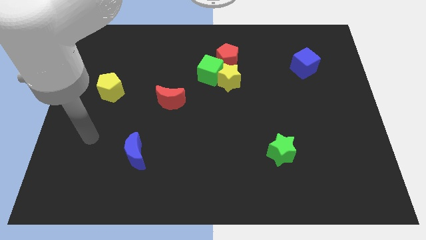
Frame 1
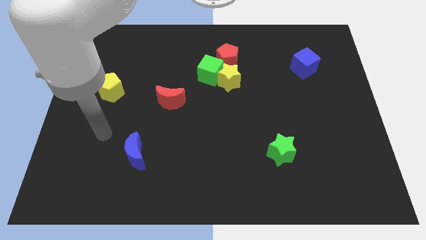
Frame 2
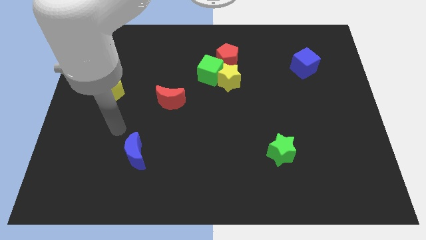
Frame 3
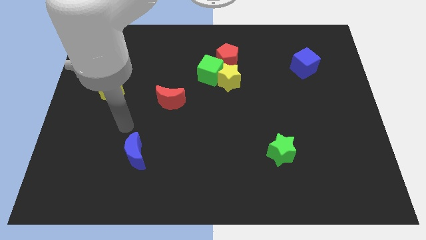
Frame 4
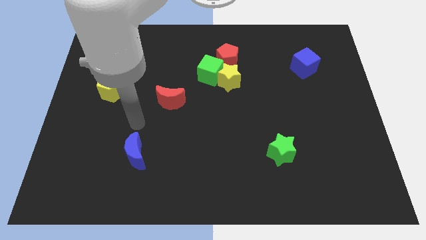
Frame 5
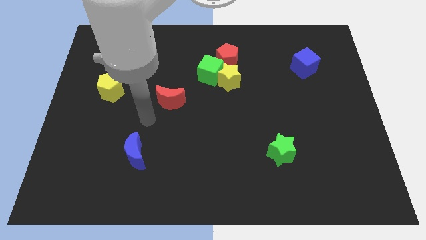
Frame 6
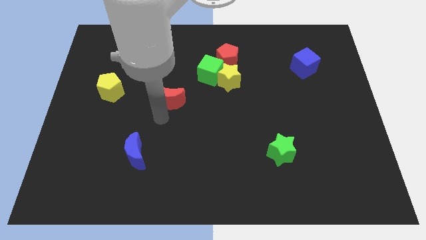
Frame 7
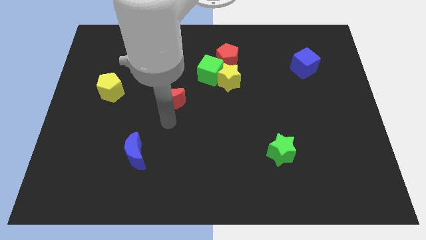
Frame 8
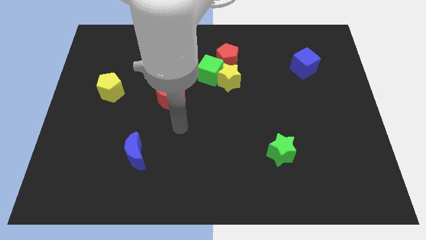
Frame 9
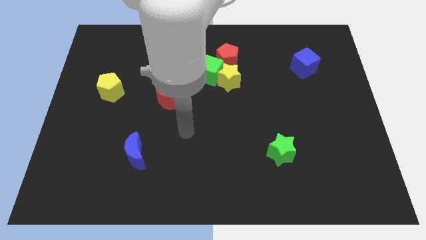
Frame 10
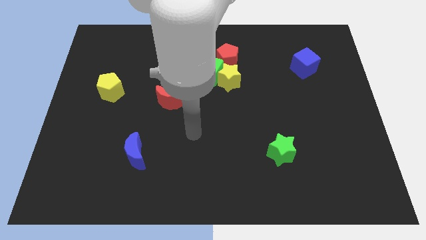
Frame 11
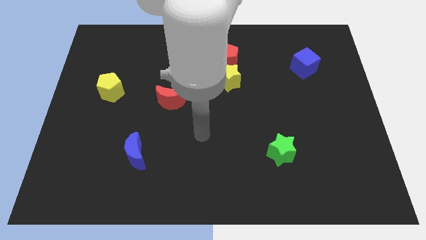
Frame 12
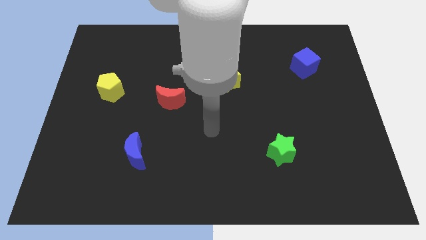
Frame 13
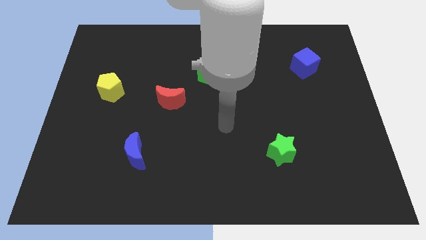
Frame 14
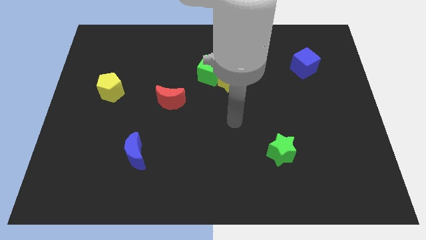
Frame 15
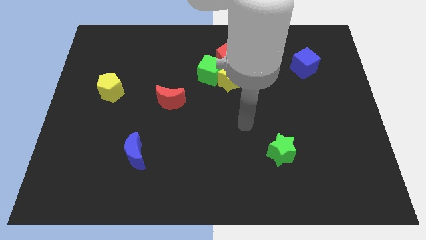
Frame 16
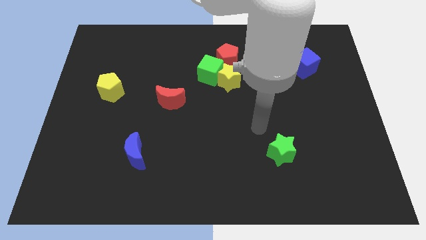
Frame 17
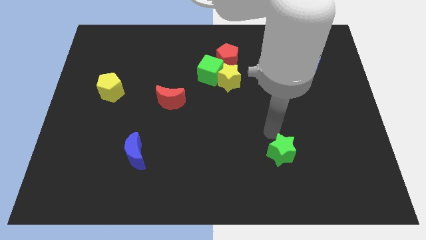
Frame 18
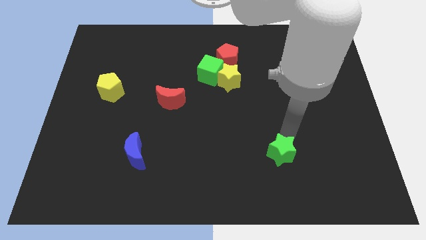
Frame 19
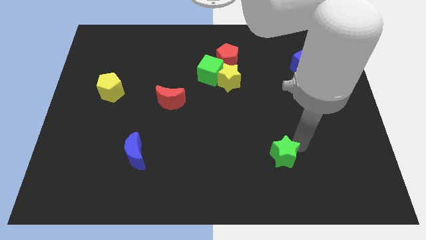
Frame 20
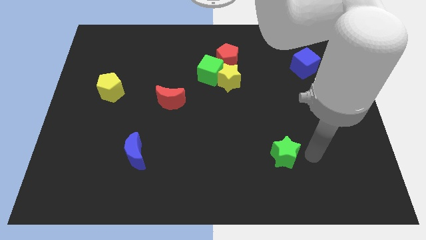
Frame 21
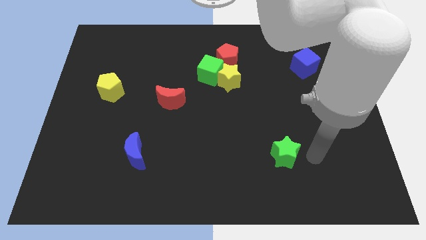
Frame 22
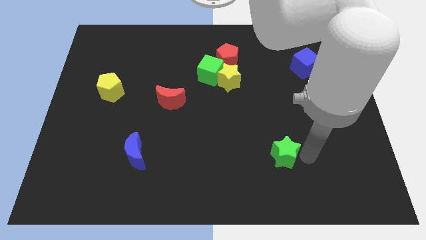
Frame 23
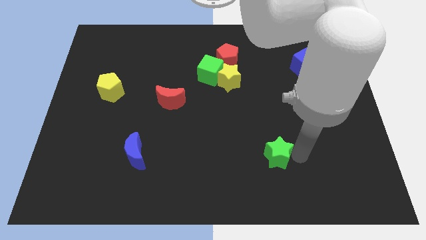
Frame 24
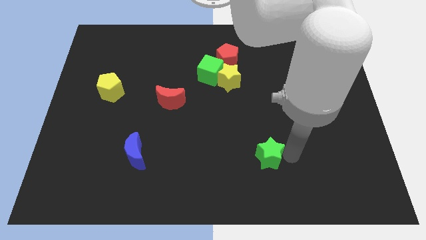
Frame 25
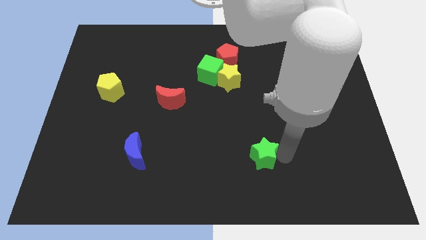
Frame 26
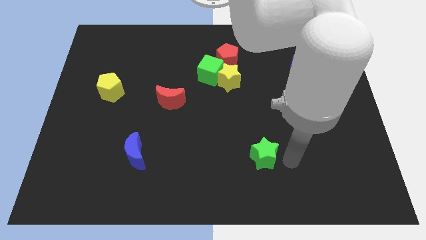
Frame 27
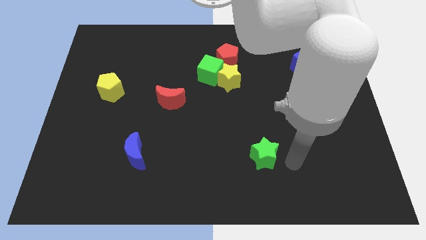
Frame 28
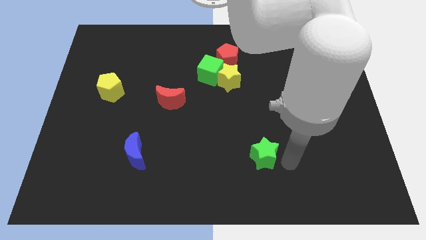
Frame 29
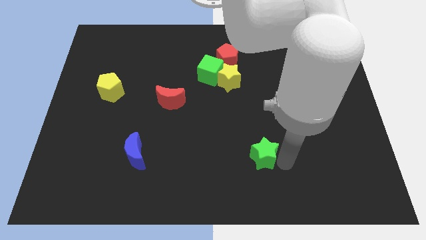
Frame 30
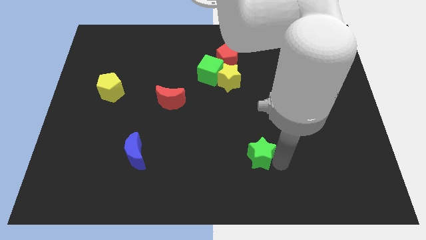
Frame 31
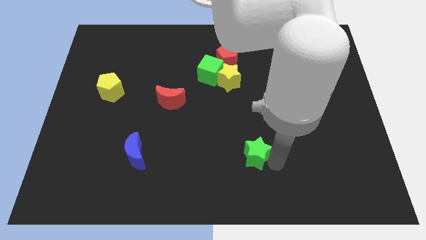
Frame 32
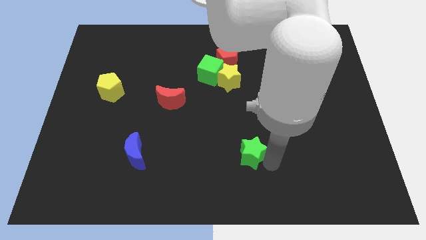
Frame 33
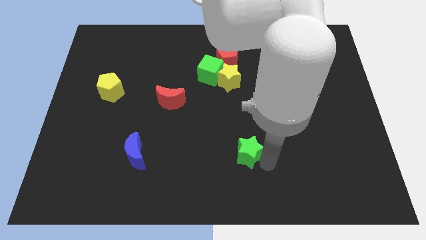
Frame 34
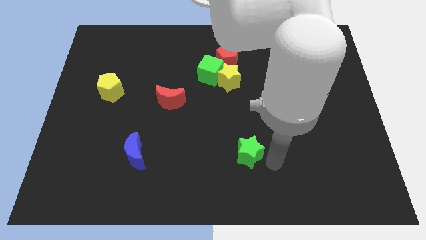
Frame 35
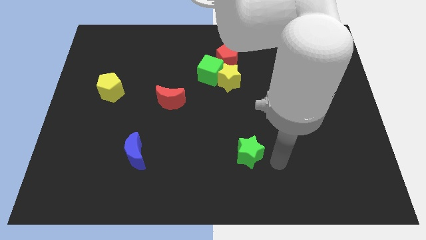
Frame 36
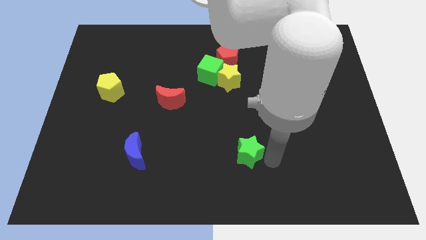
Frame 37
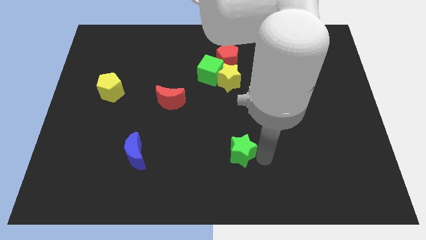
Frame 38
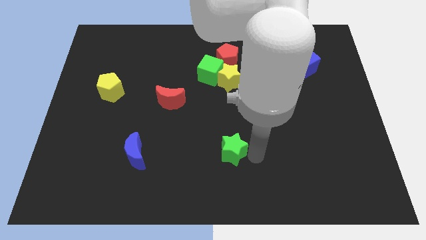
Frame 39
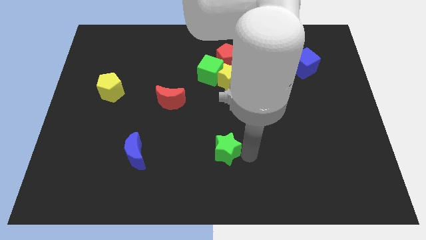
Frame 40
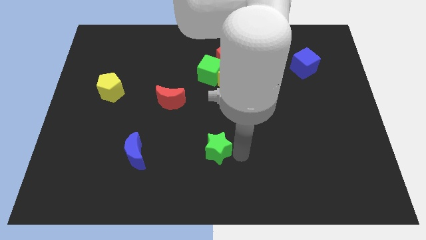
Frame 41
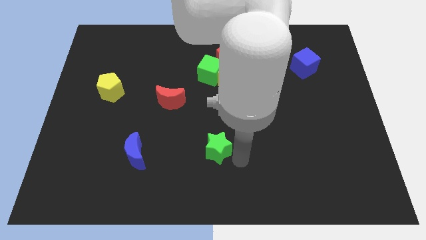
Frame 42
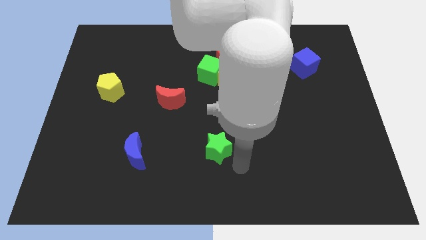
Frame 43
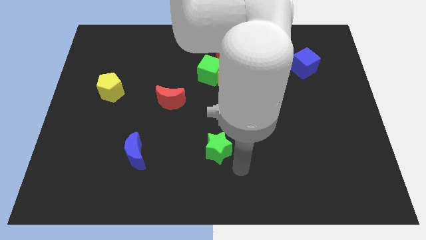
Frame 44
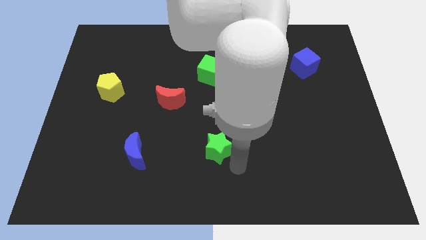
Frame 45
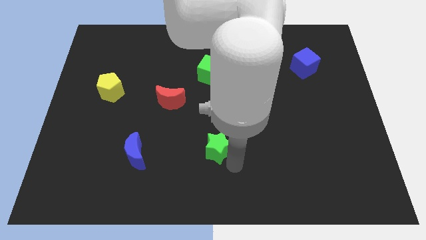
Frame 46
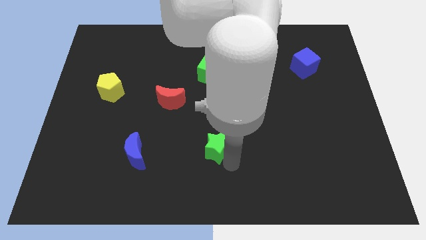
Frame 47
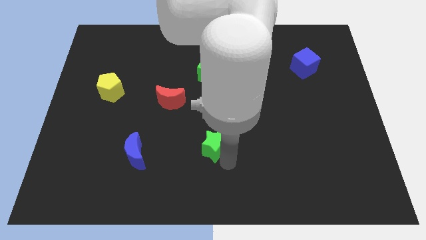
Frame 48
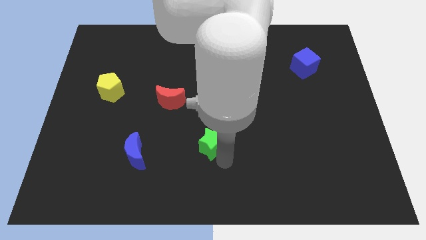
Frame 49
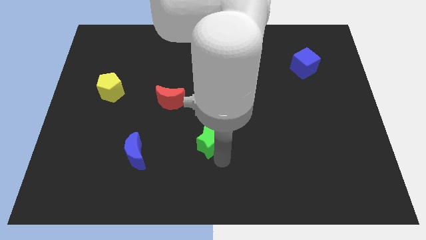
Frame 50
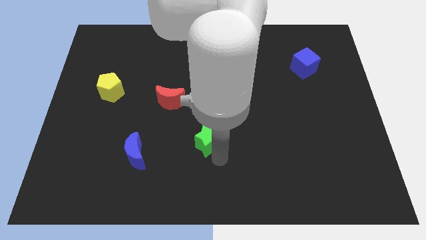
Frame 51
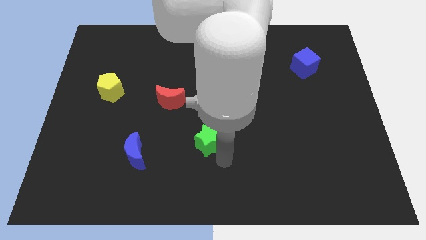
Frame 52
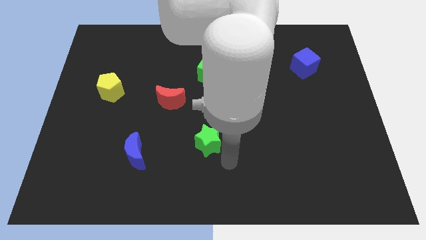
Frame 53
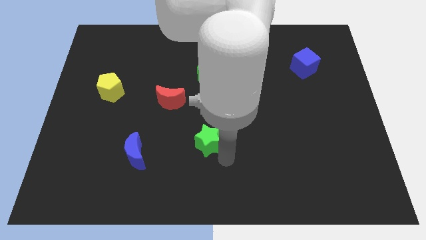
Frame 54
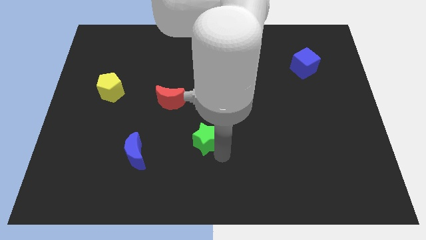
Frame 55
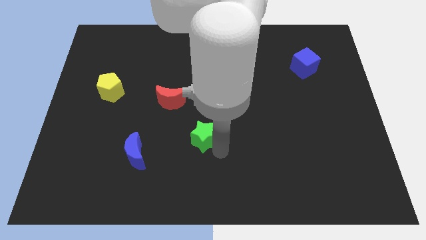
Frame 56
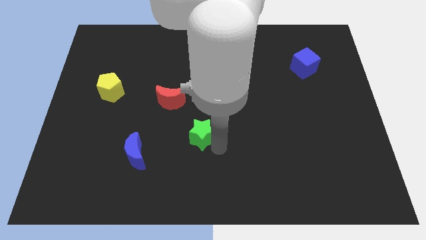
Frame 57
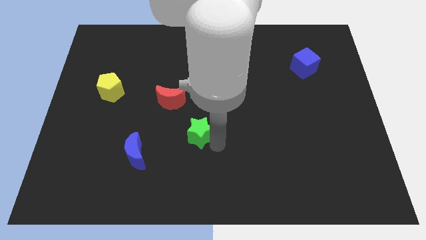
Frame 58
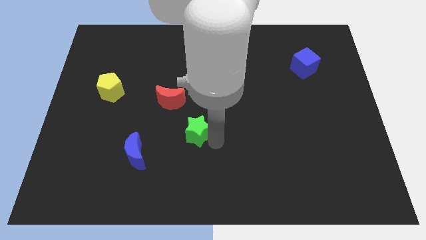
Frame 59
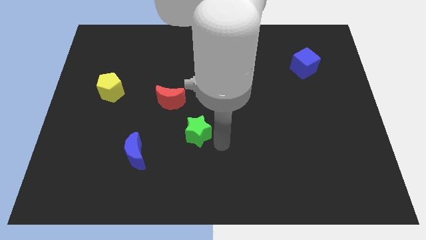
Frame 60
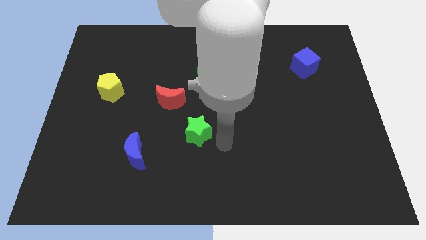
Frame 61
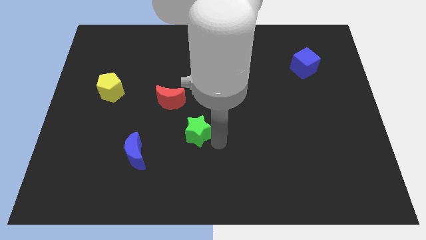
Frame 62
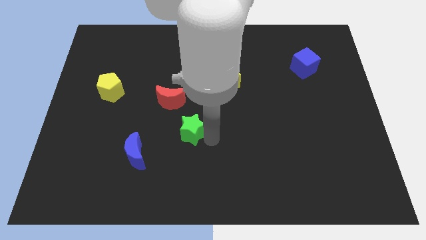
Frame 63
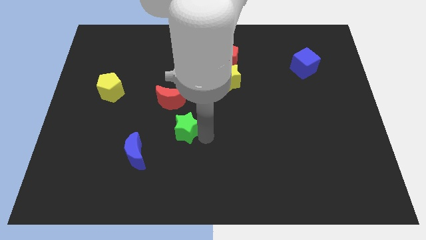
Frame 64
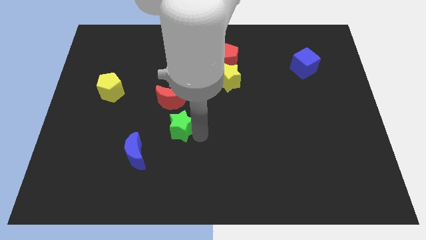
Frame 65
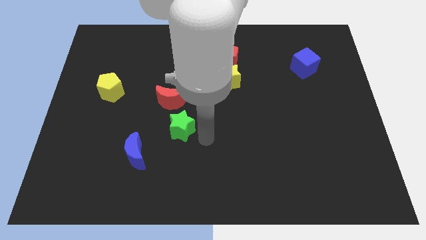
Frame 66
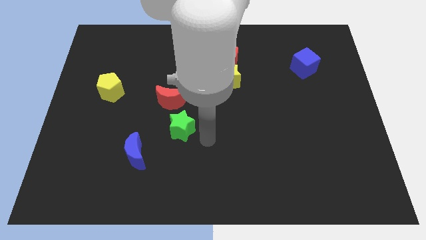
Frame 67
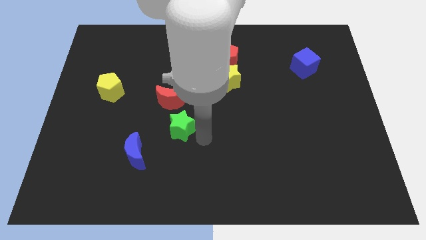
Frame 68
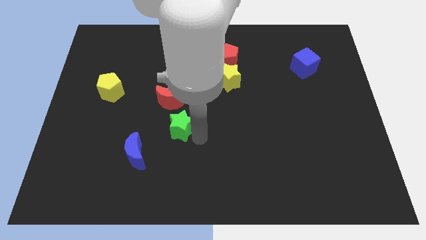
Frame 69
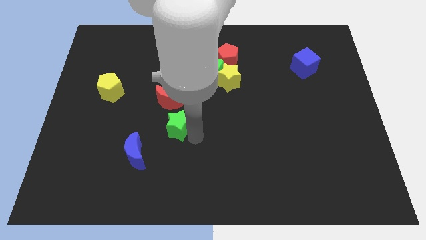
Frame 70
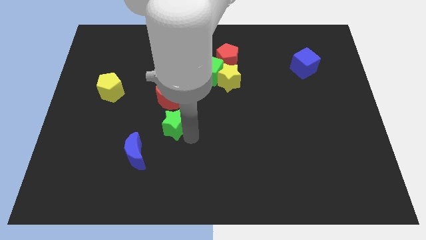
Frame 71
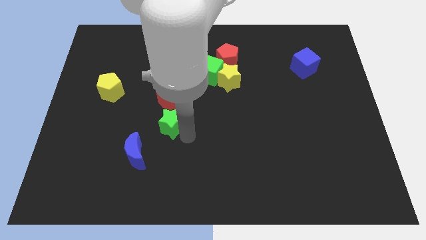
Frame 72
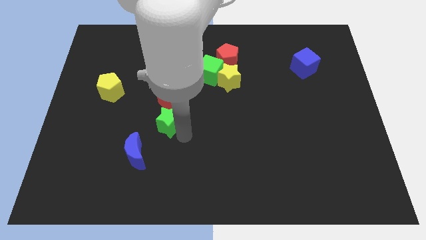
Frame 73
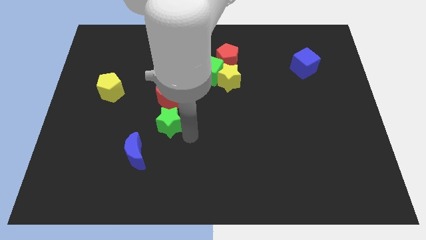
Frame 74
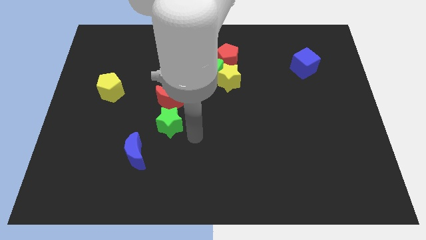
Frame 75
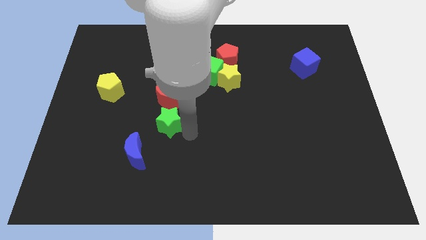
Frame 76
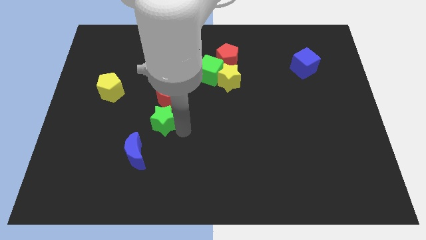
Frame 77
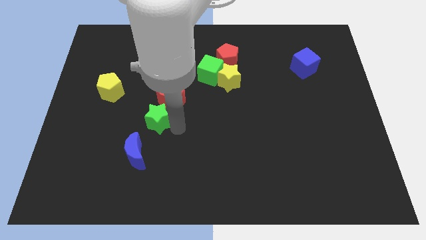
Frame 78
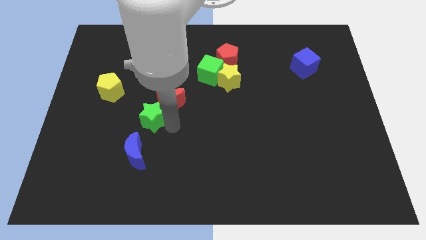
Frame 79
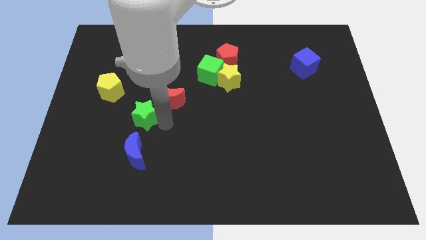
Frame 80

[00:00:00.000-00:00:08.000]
put the green star to the bottom right side of the yellow pentagon
